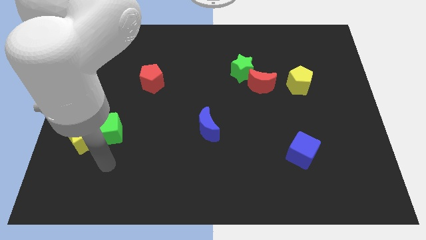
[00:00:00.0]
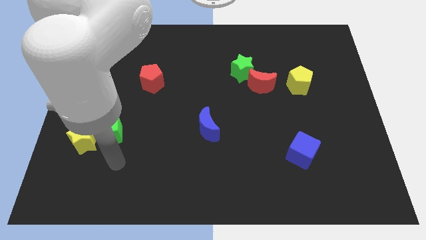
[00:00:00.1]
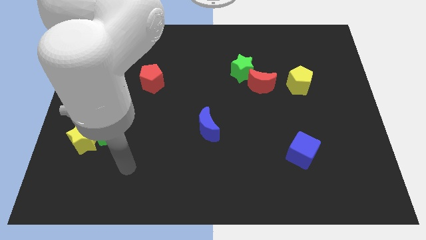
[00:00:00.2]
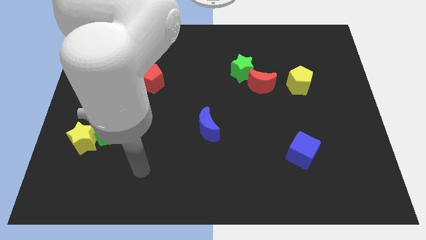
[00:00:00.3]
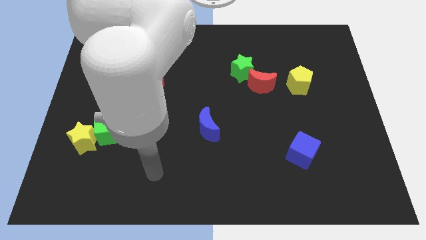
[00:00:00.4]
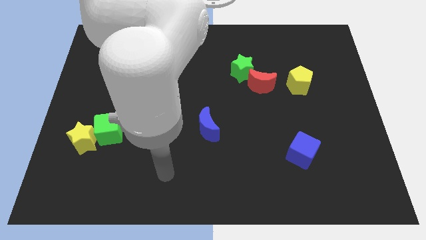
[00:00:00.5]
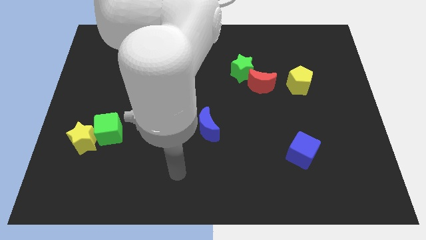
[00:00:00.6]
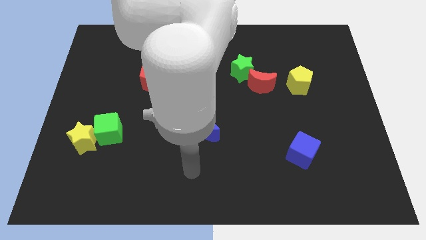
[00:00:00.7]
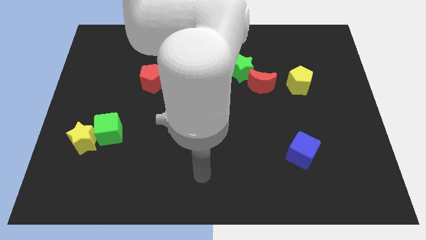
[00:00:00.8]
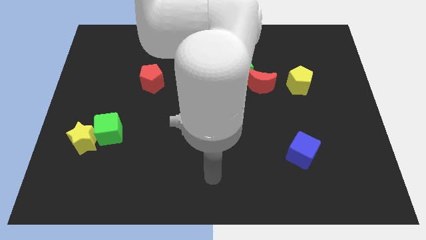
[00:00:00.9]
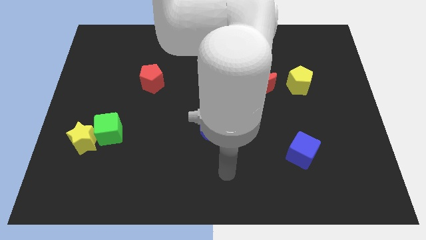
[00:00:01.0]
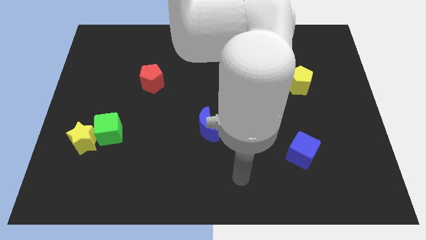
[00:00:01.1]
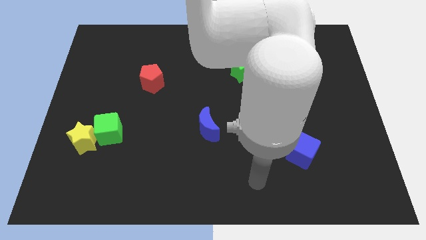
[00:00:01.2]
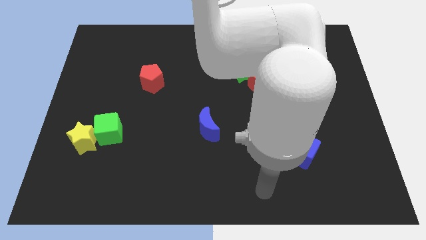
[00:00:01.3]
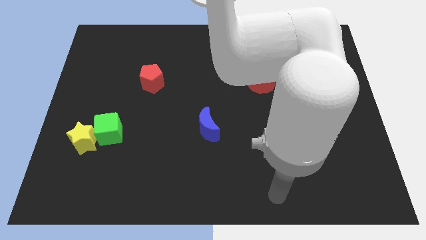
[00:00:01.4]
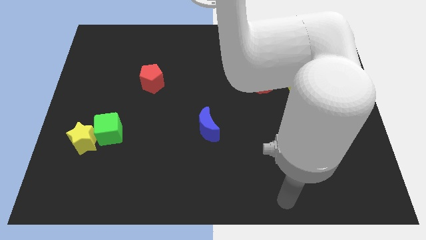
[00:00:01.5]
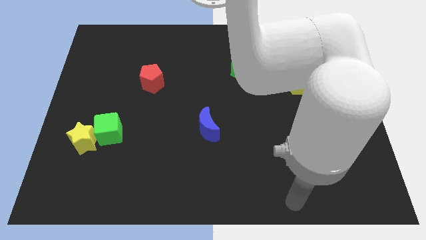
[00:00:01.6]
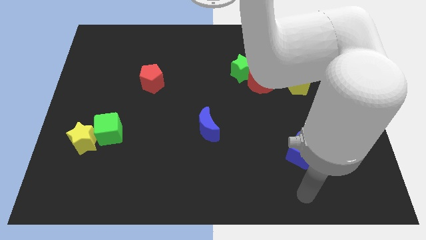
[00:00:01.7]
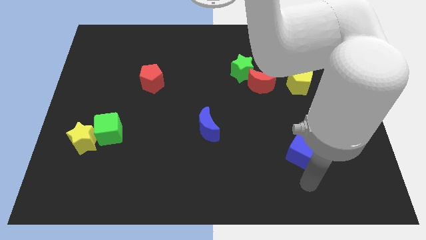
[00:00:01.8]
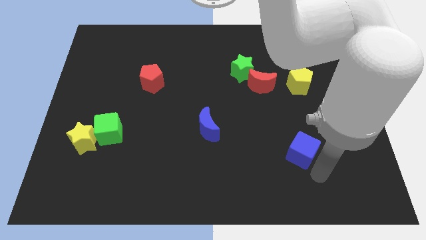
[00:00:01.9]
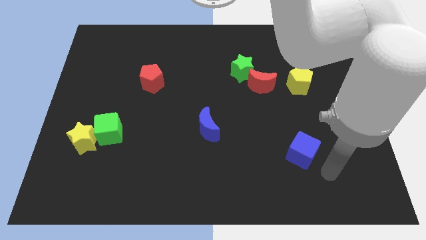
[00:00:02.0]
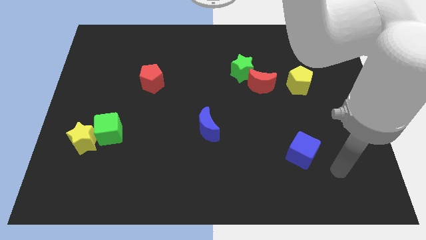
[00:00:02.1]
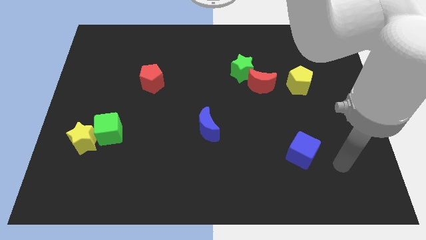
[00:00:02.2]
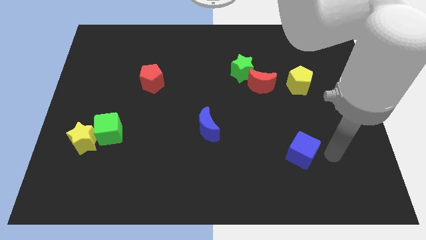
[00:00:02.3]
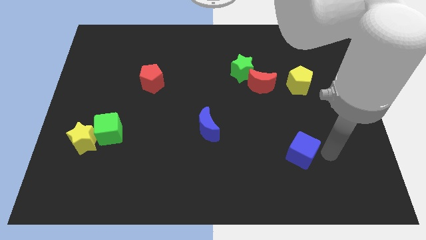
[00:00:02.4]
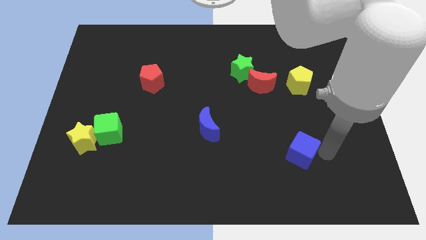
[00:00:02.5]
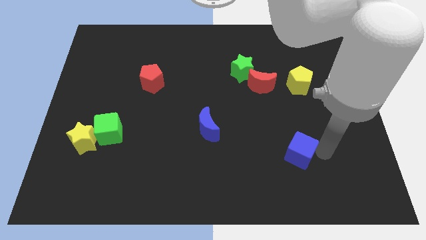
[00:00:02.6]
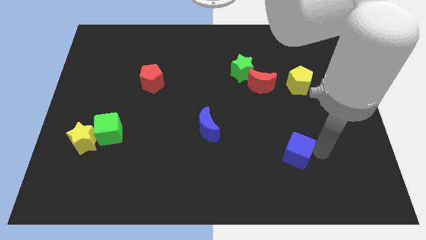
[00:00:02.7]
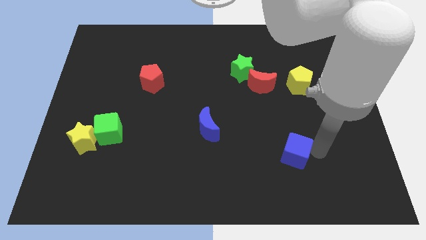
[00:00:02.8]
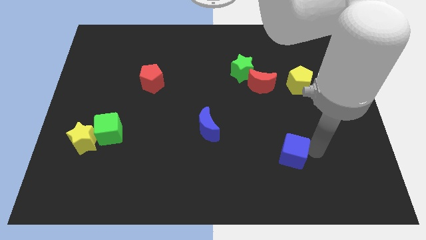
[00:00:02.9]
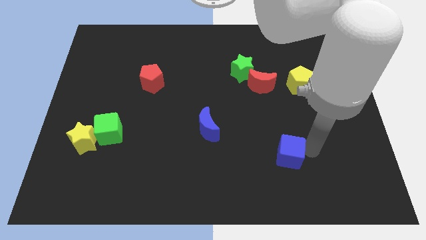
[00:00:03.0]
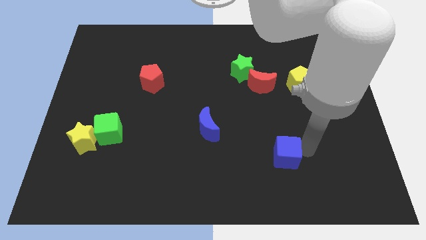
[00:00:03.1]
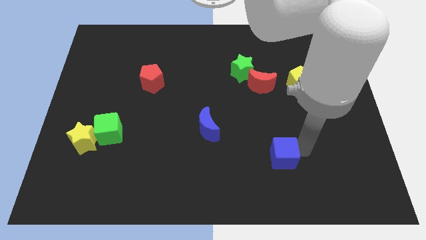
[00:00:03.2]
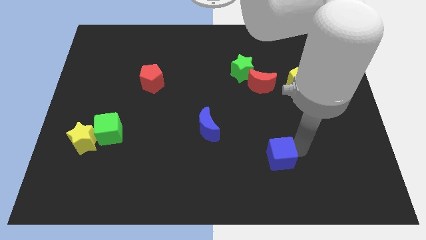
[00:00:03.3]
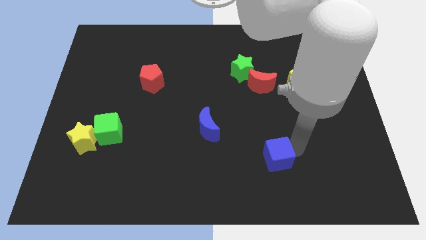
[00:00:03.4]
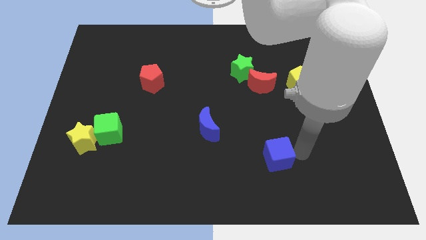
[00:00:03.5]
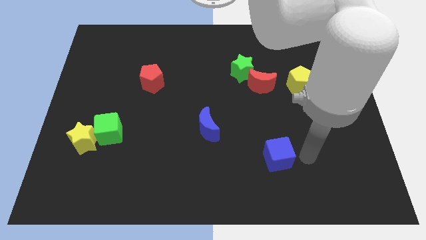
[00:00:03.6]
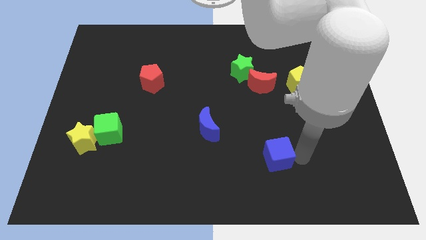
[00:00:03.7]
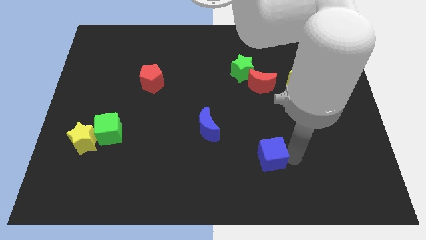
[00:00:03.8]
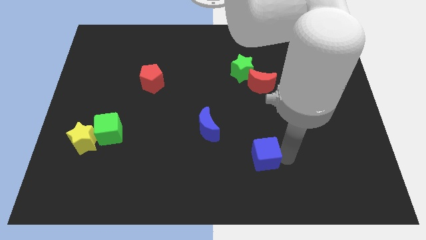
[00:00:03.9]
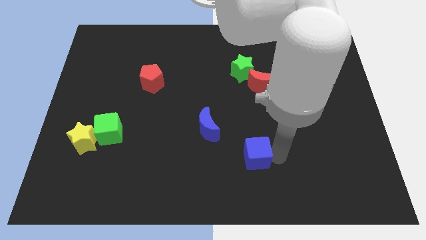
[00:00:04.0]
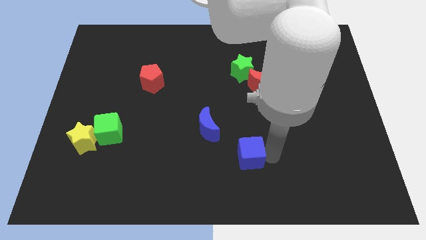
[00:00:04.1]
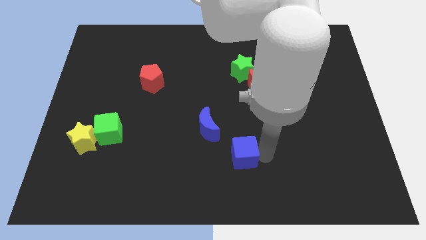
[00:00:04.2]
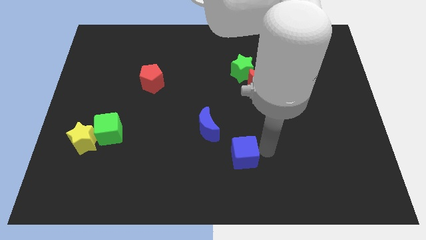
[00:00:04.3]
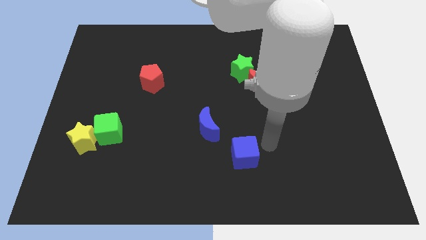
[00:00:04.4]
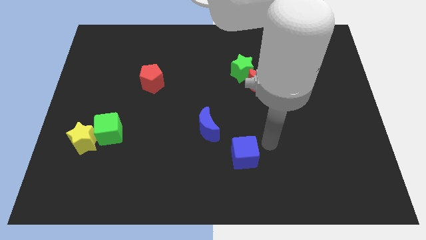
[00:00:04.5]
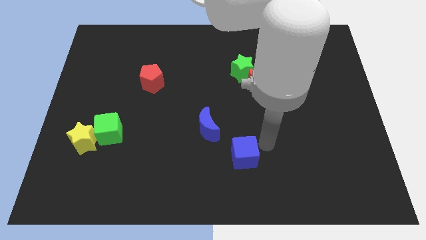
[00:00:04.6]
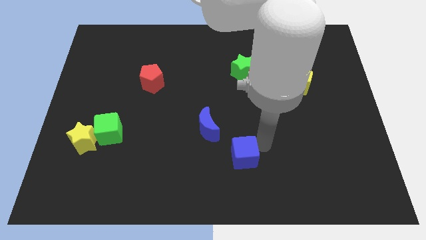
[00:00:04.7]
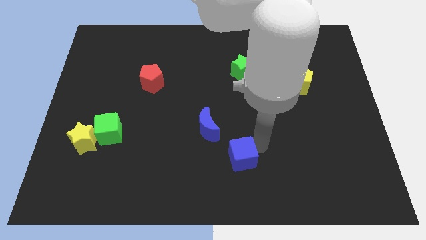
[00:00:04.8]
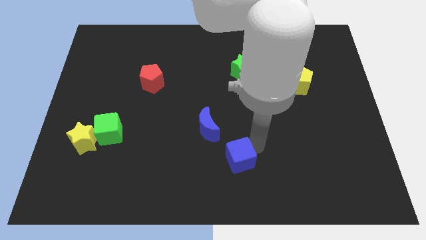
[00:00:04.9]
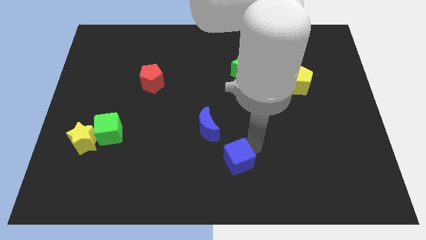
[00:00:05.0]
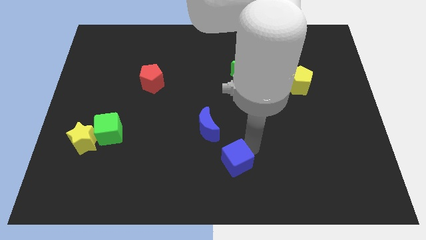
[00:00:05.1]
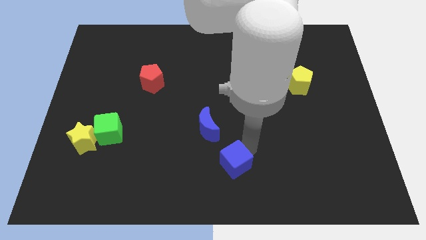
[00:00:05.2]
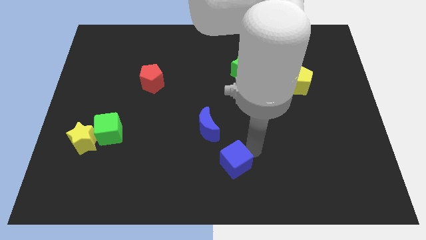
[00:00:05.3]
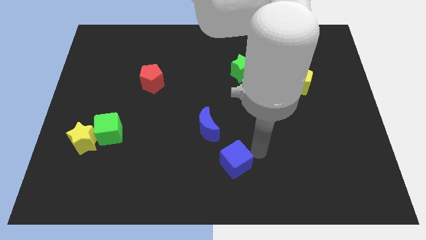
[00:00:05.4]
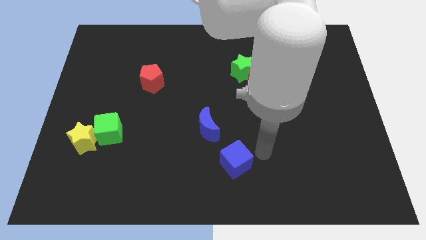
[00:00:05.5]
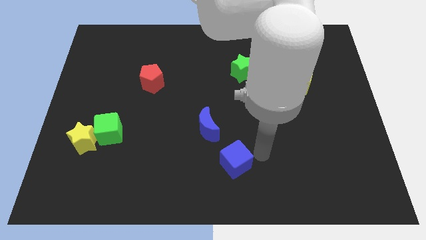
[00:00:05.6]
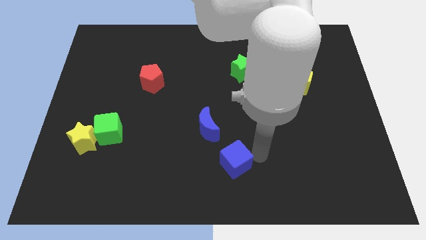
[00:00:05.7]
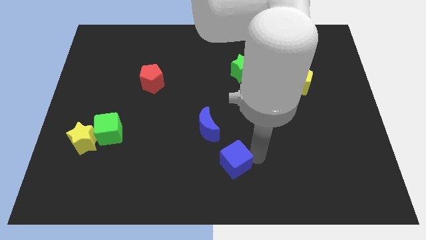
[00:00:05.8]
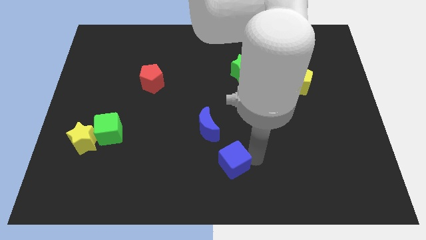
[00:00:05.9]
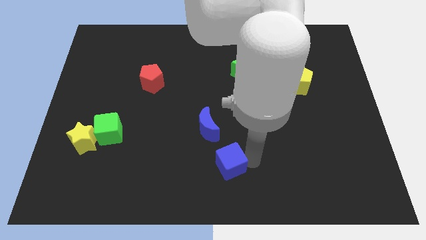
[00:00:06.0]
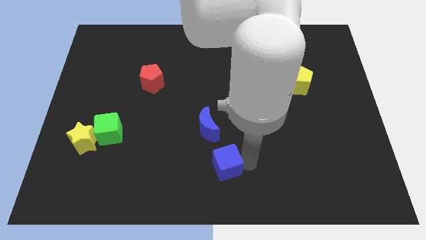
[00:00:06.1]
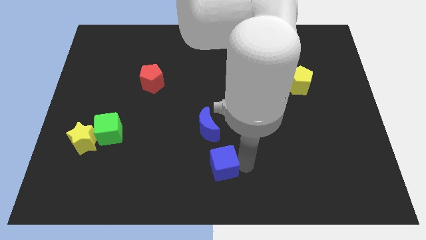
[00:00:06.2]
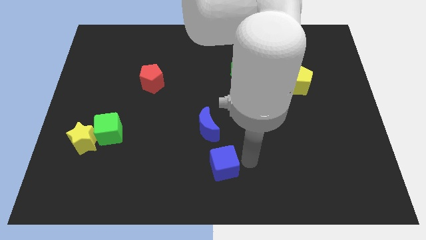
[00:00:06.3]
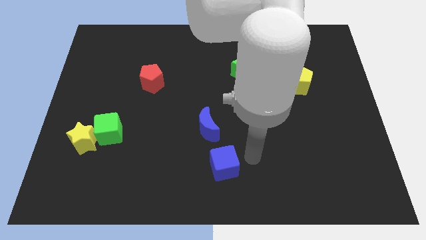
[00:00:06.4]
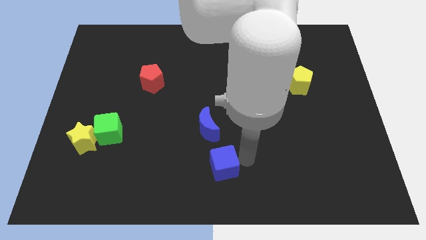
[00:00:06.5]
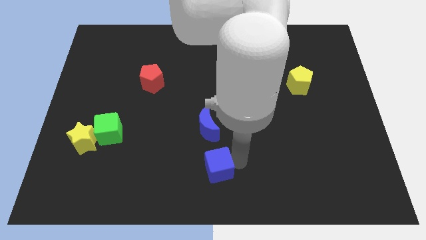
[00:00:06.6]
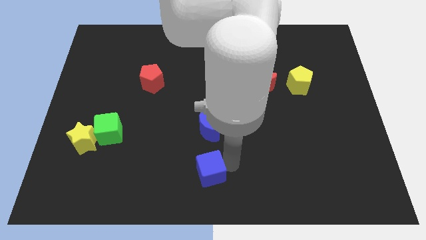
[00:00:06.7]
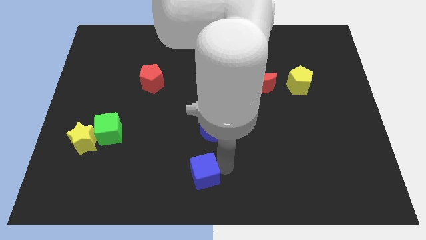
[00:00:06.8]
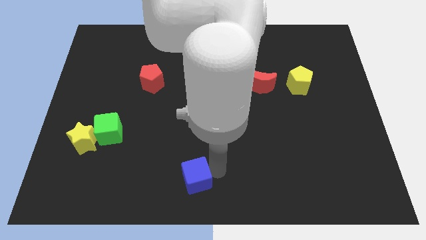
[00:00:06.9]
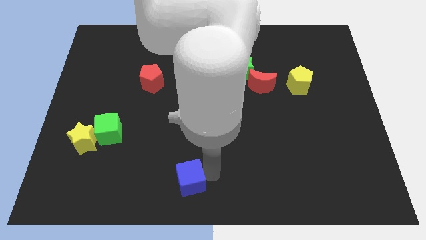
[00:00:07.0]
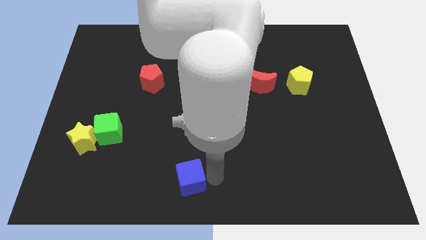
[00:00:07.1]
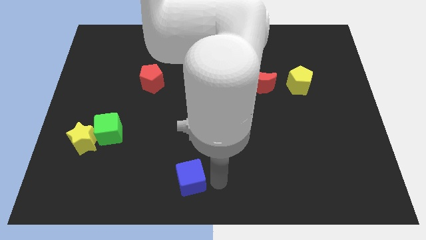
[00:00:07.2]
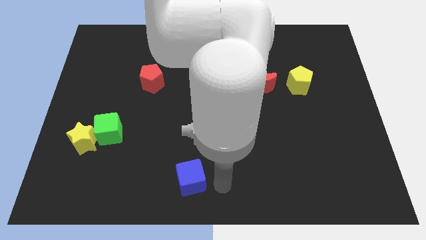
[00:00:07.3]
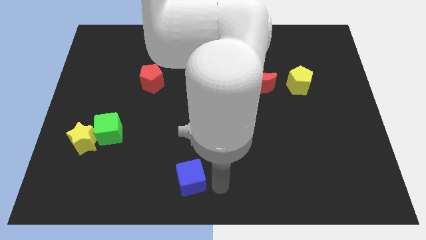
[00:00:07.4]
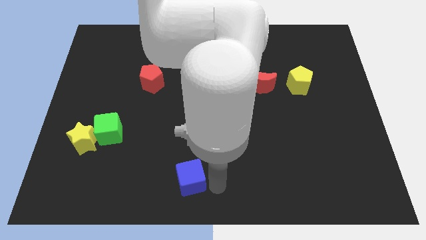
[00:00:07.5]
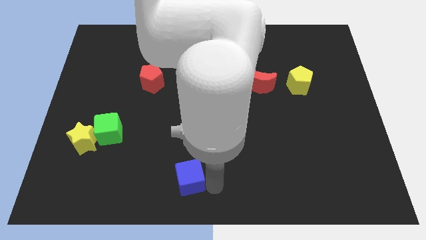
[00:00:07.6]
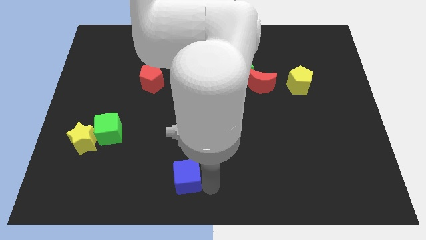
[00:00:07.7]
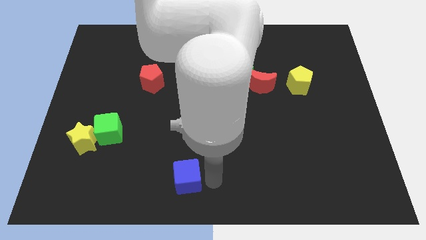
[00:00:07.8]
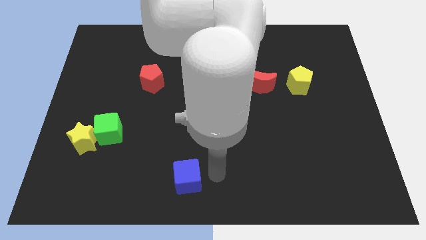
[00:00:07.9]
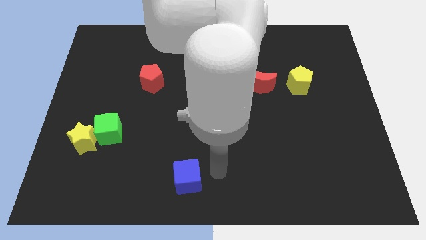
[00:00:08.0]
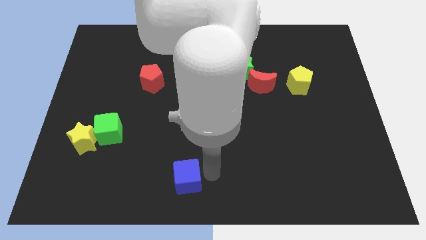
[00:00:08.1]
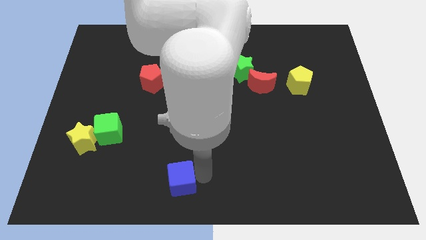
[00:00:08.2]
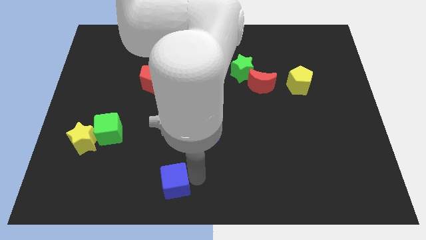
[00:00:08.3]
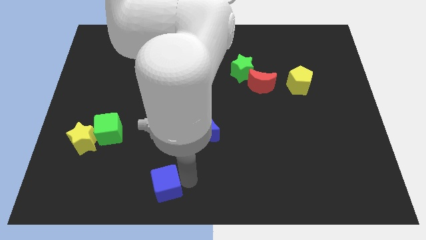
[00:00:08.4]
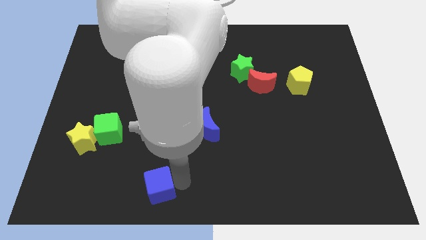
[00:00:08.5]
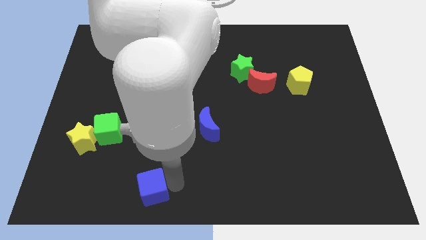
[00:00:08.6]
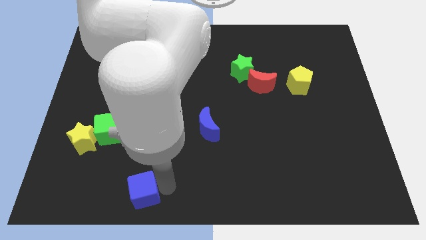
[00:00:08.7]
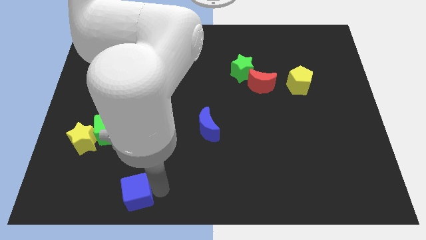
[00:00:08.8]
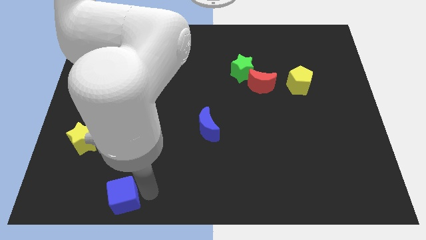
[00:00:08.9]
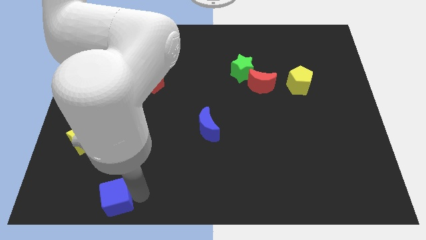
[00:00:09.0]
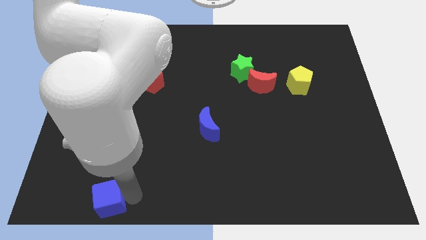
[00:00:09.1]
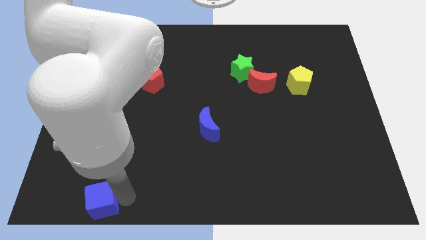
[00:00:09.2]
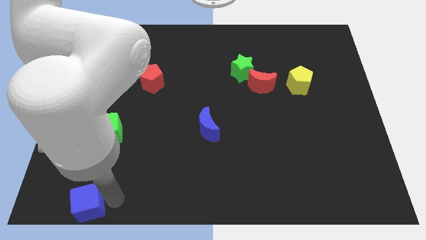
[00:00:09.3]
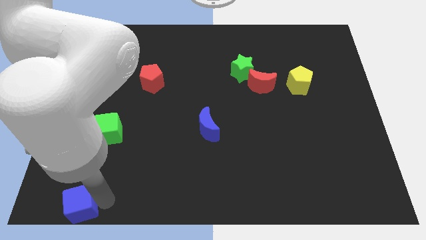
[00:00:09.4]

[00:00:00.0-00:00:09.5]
move the blue cube to the lower left corner
